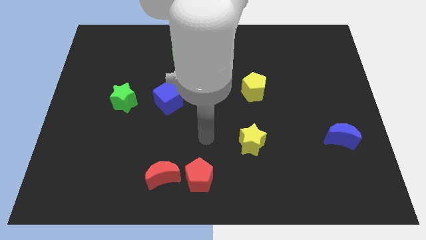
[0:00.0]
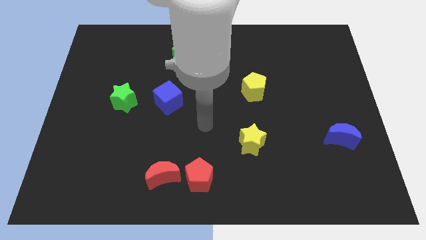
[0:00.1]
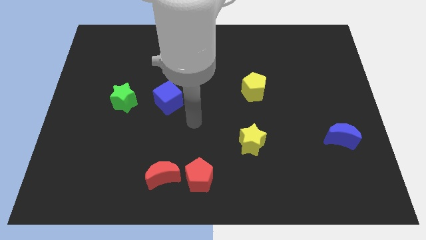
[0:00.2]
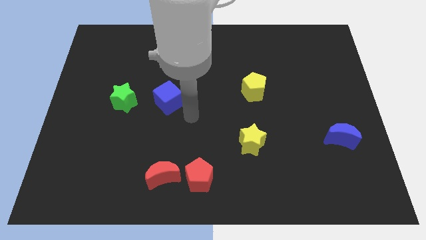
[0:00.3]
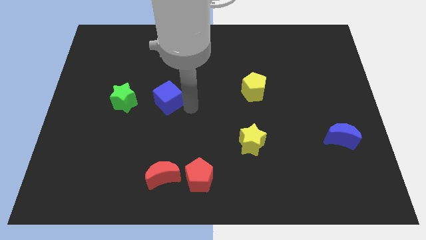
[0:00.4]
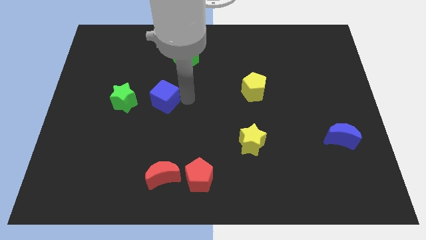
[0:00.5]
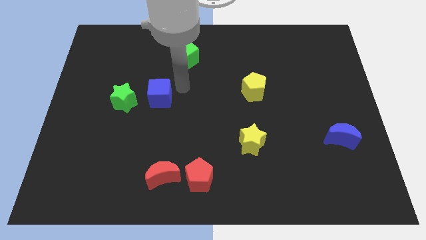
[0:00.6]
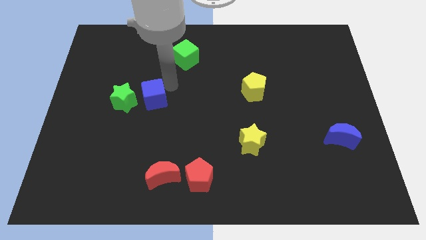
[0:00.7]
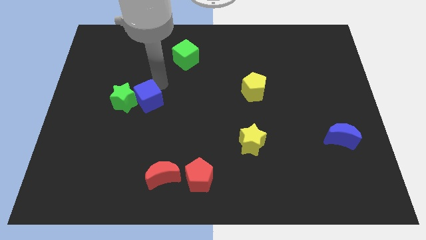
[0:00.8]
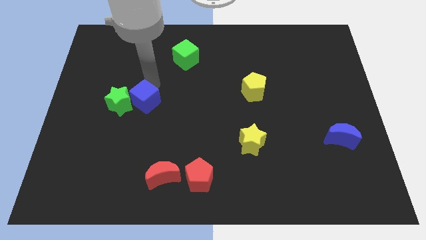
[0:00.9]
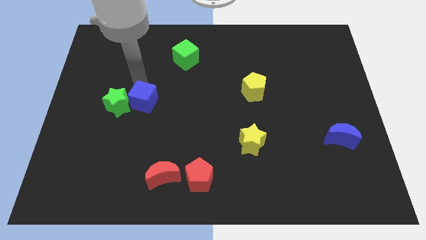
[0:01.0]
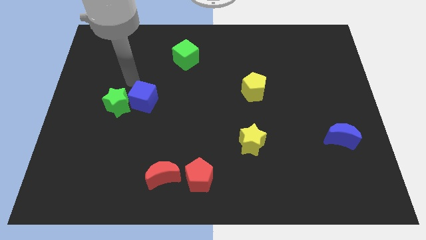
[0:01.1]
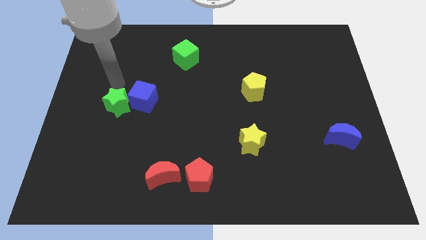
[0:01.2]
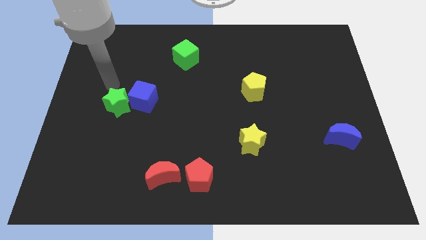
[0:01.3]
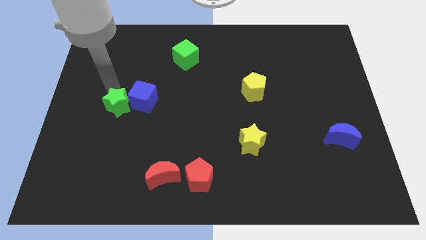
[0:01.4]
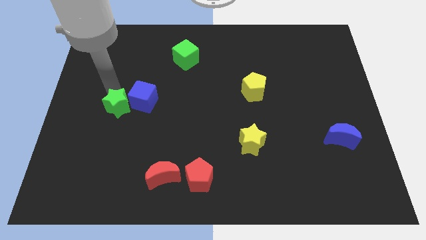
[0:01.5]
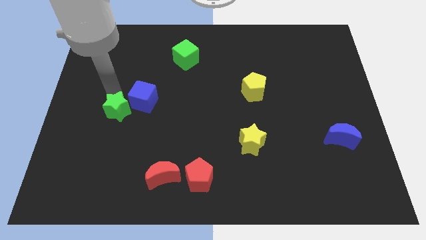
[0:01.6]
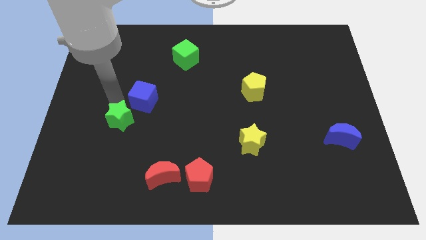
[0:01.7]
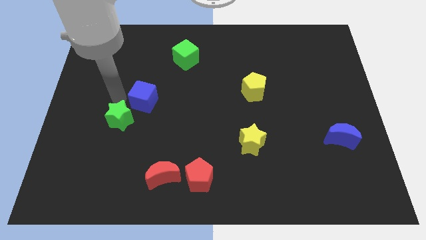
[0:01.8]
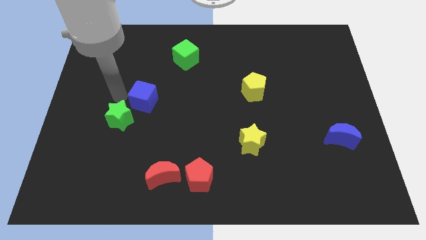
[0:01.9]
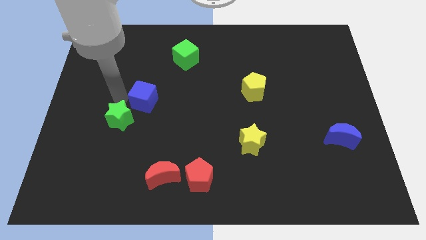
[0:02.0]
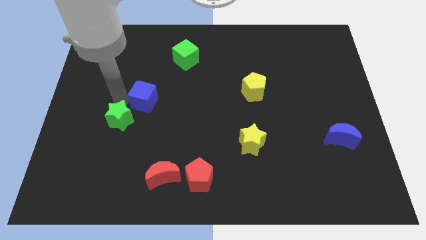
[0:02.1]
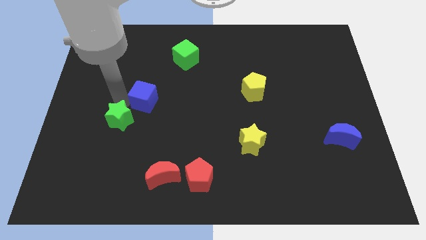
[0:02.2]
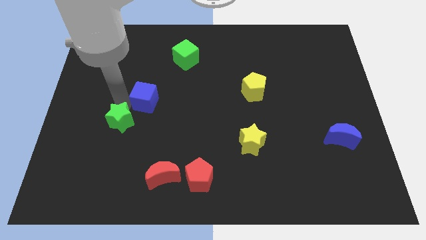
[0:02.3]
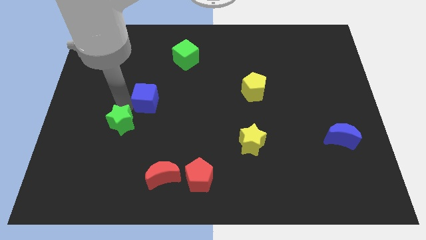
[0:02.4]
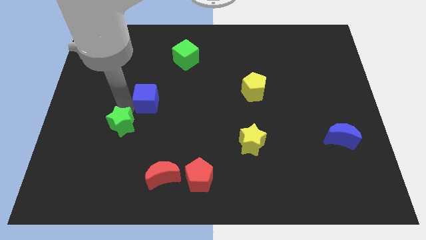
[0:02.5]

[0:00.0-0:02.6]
move the green star a little downwards

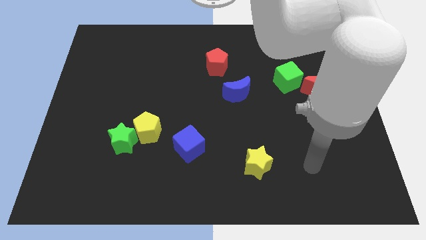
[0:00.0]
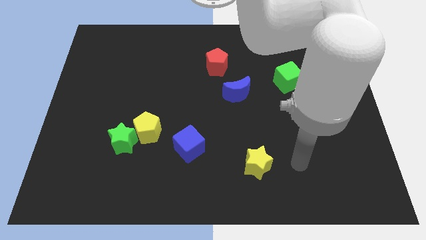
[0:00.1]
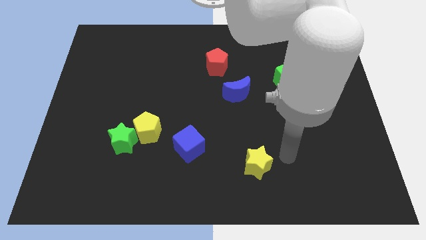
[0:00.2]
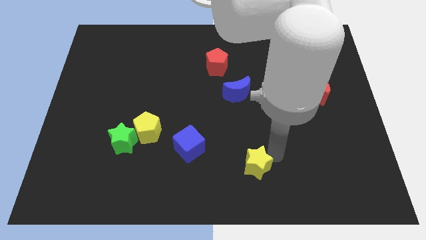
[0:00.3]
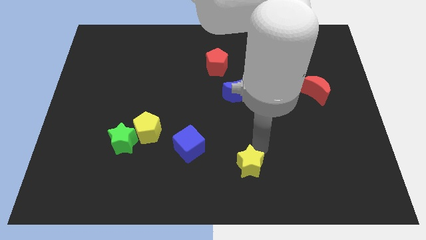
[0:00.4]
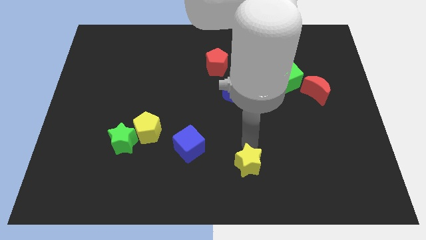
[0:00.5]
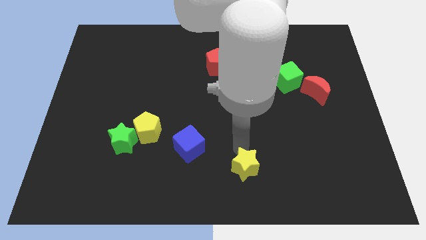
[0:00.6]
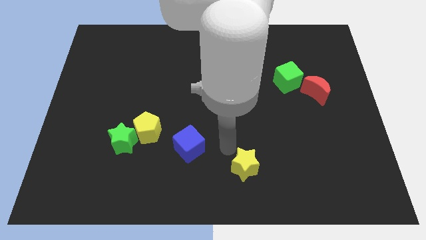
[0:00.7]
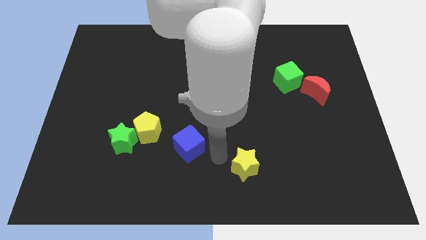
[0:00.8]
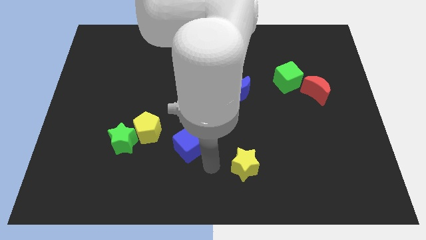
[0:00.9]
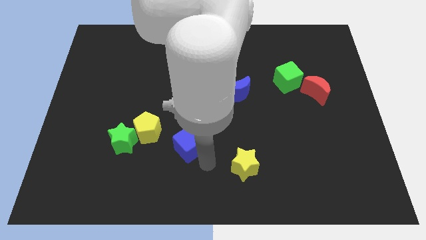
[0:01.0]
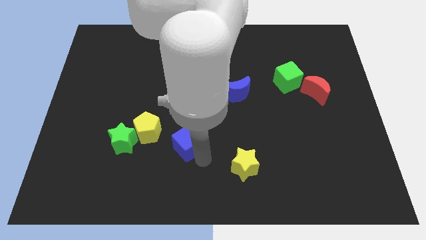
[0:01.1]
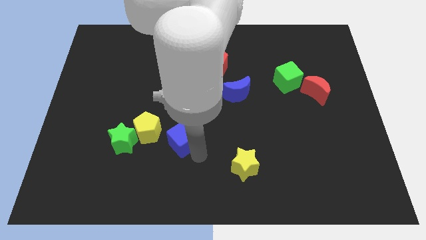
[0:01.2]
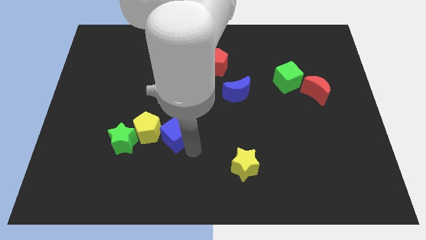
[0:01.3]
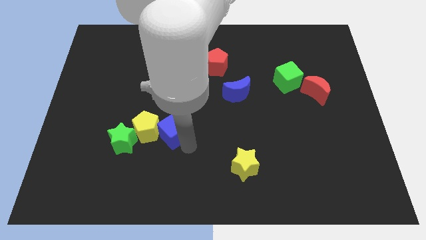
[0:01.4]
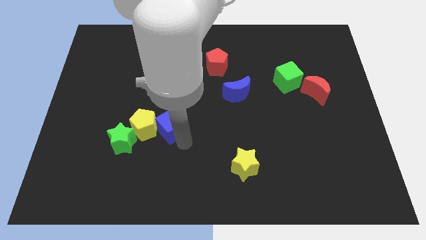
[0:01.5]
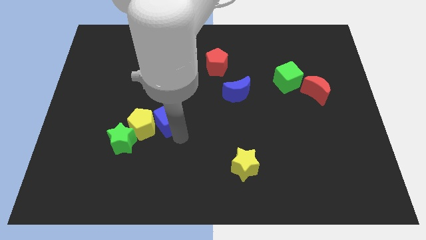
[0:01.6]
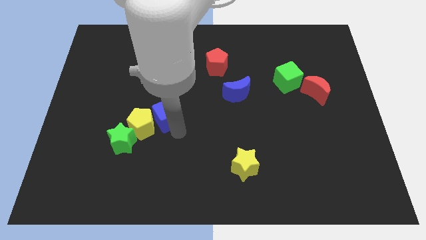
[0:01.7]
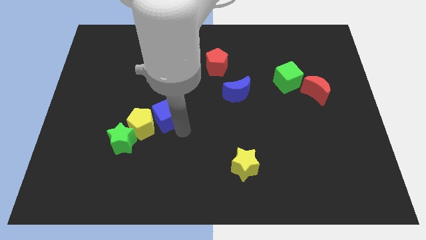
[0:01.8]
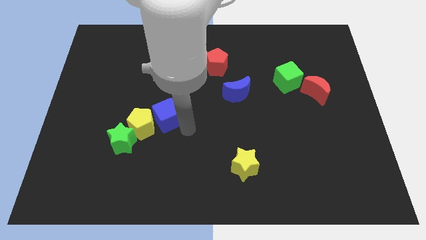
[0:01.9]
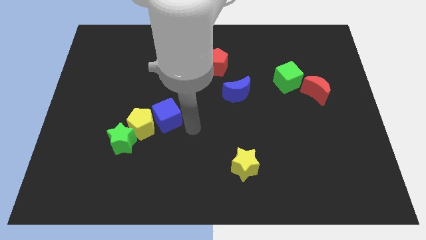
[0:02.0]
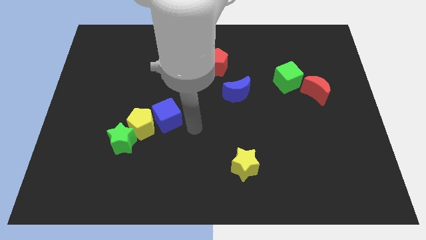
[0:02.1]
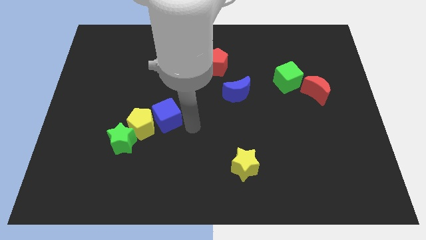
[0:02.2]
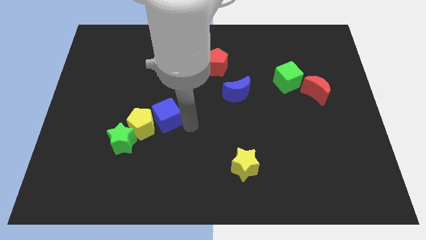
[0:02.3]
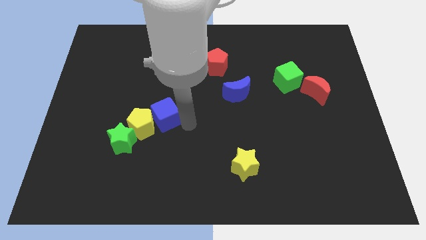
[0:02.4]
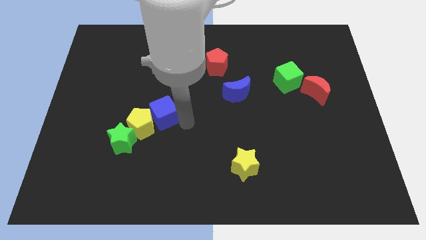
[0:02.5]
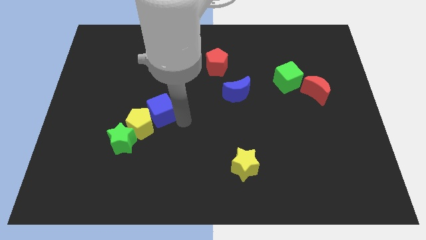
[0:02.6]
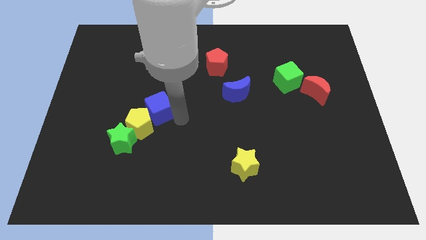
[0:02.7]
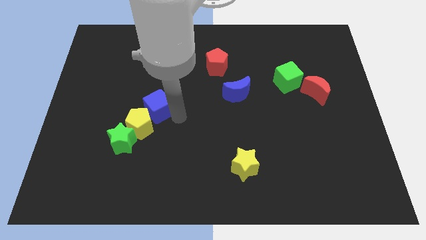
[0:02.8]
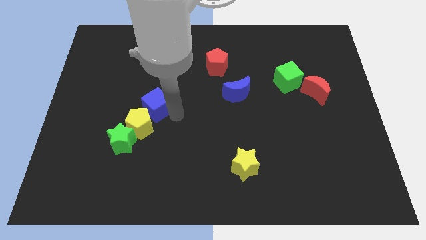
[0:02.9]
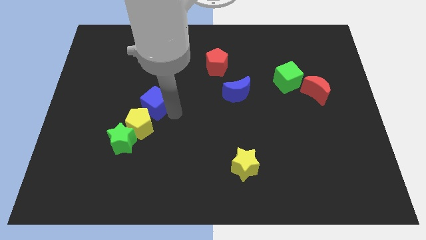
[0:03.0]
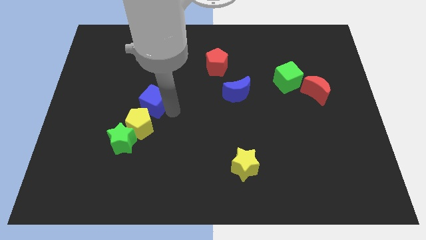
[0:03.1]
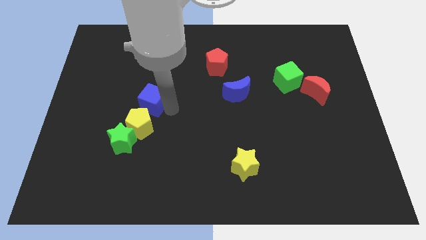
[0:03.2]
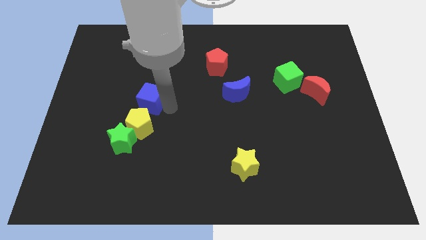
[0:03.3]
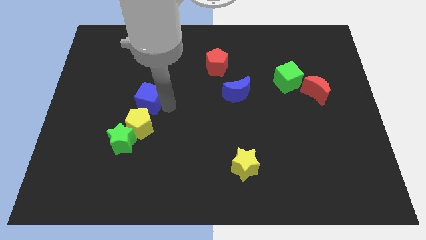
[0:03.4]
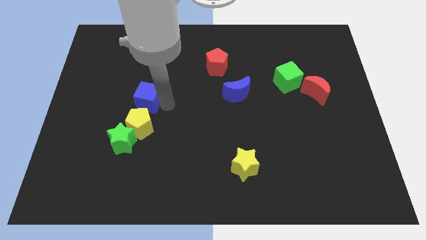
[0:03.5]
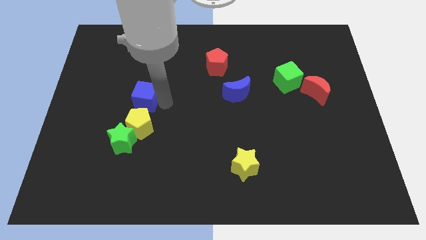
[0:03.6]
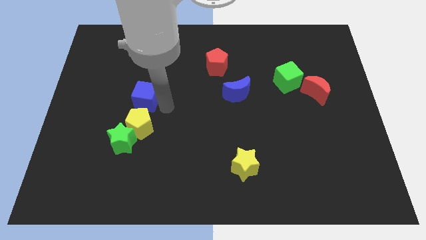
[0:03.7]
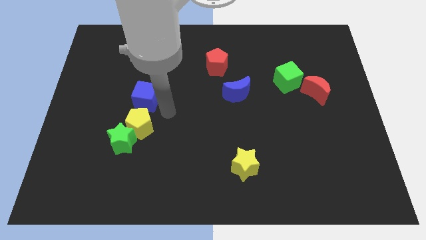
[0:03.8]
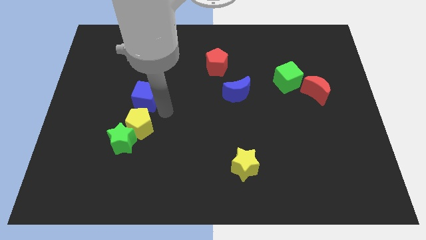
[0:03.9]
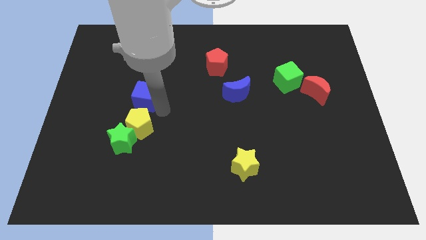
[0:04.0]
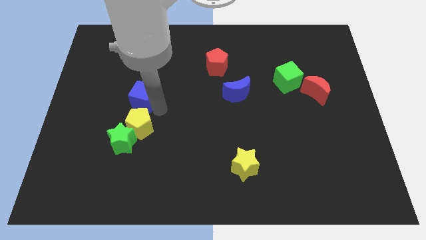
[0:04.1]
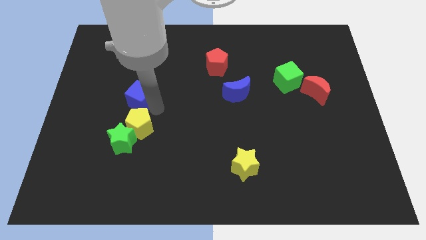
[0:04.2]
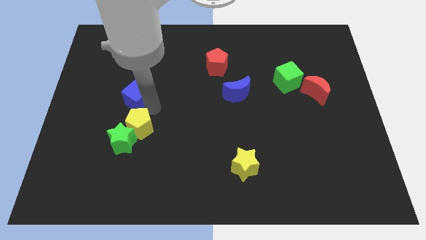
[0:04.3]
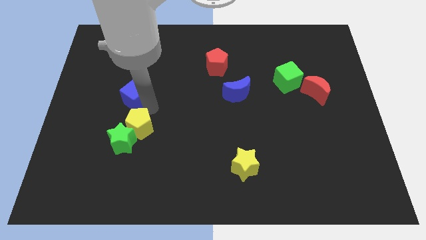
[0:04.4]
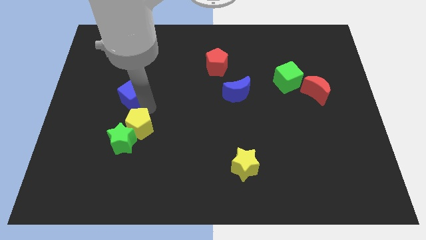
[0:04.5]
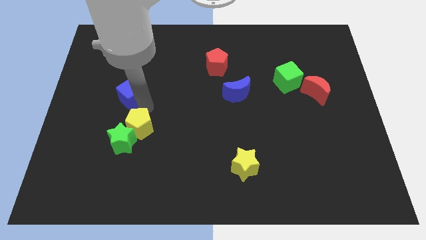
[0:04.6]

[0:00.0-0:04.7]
move the blue cube diagonally upwards and left

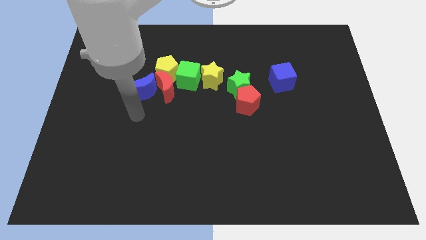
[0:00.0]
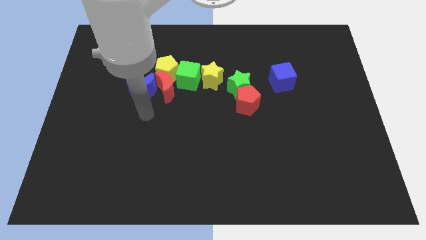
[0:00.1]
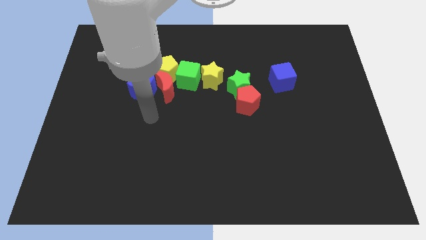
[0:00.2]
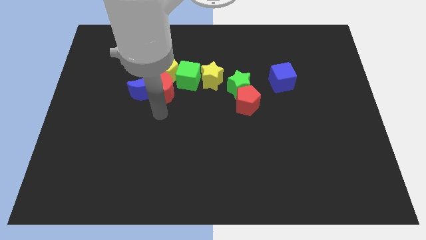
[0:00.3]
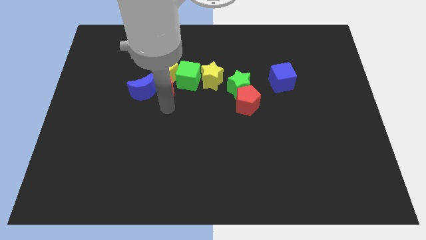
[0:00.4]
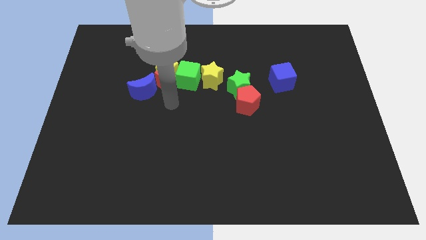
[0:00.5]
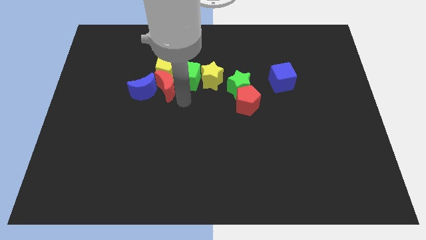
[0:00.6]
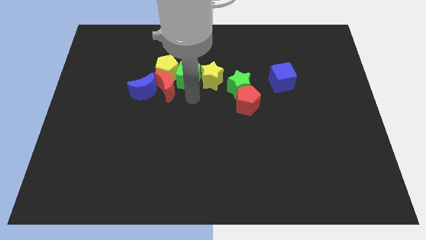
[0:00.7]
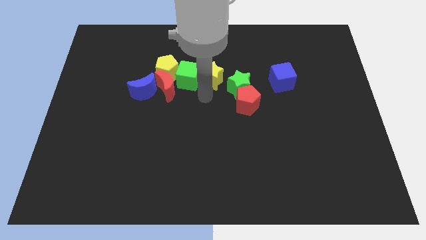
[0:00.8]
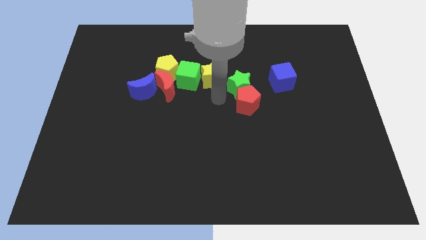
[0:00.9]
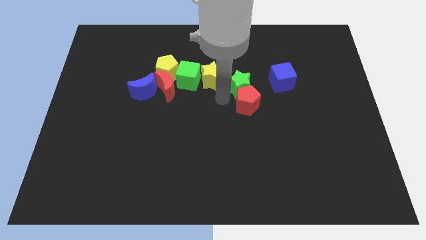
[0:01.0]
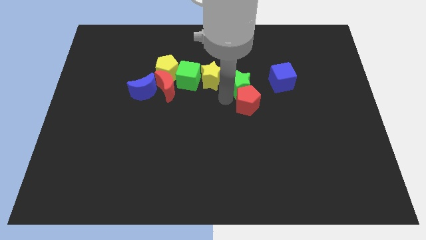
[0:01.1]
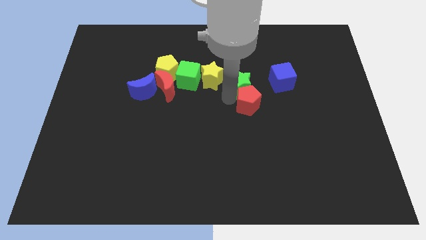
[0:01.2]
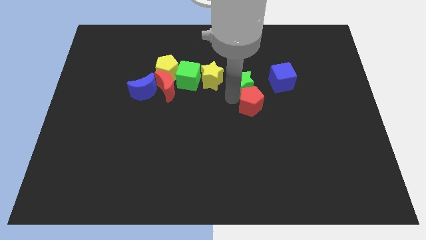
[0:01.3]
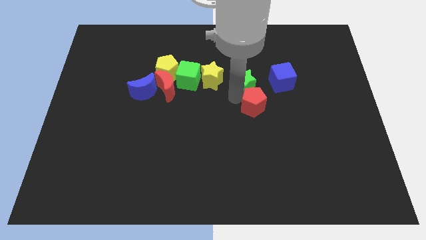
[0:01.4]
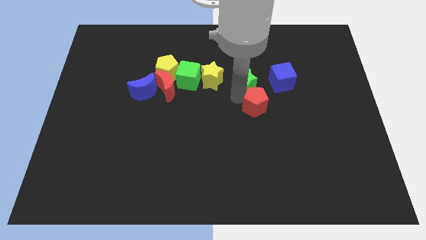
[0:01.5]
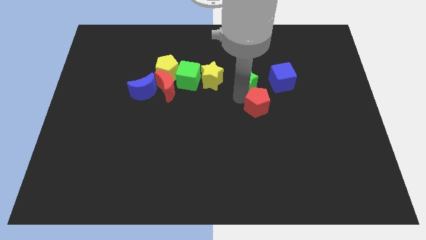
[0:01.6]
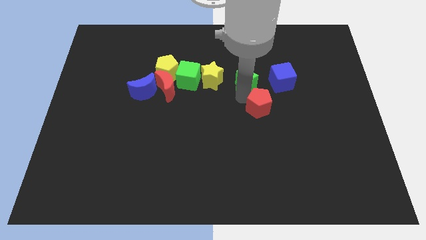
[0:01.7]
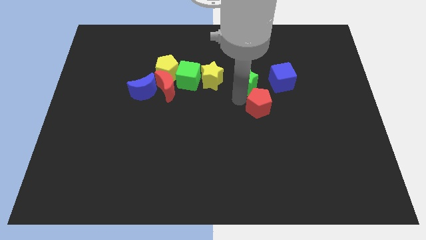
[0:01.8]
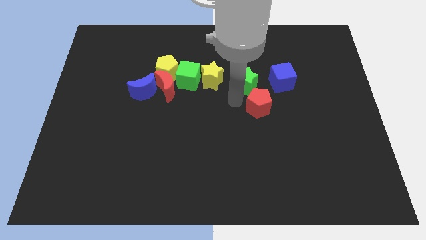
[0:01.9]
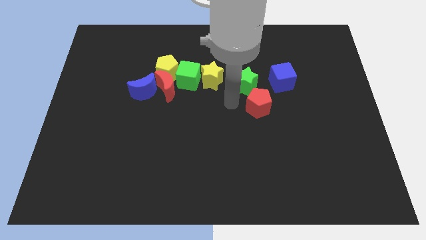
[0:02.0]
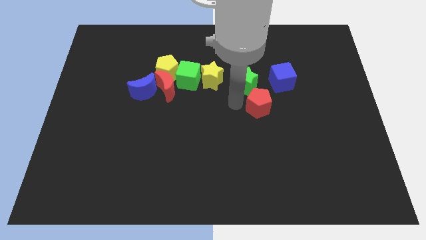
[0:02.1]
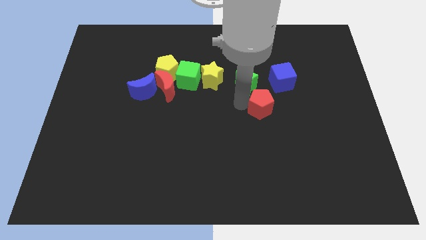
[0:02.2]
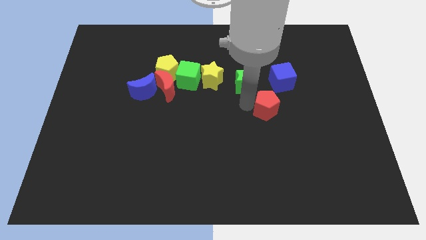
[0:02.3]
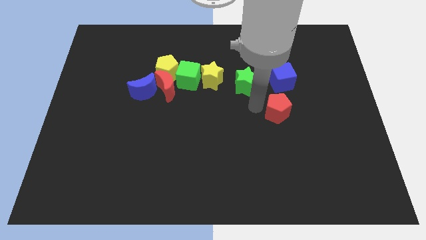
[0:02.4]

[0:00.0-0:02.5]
slide the red pentagon a little bit to the right
